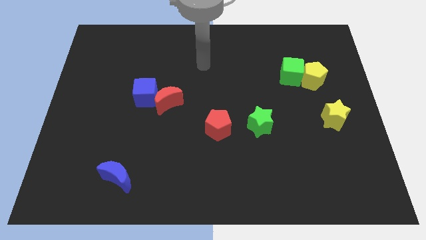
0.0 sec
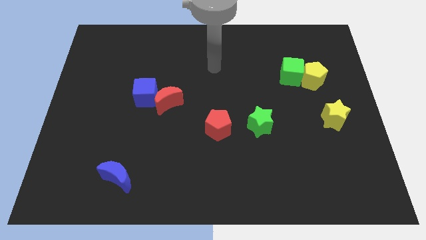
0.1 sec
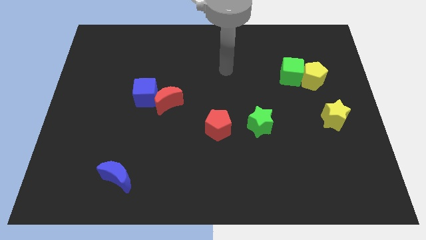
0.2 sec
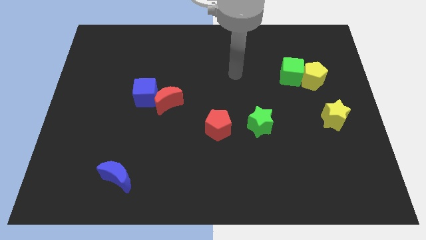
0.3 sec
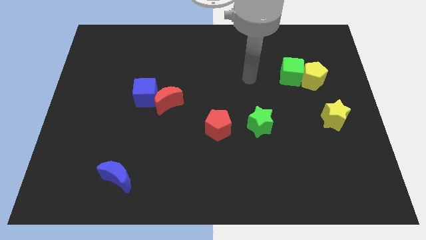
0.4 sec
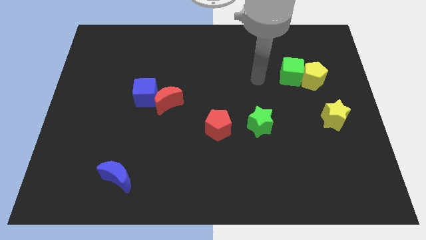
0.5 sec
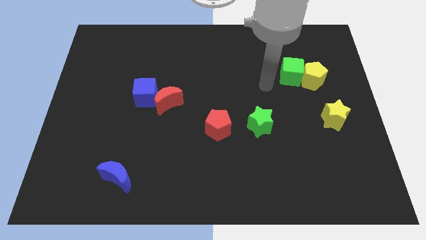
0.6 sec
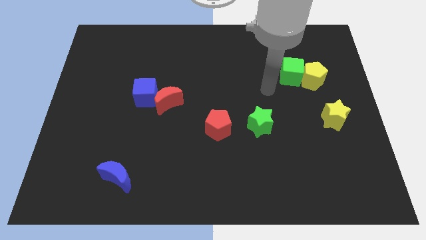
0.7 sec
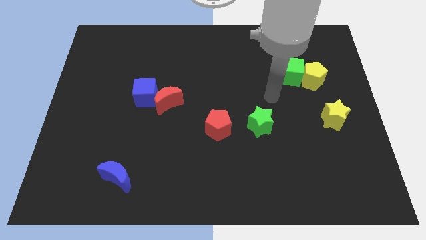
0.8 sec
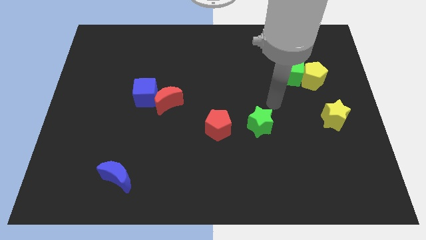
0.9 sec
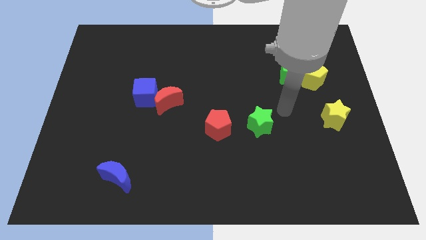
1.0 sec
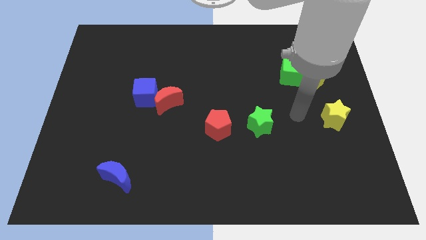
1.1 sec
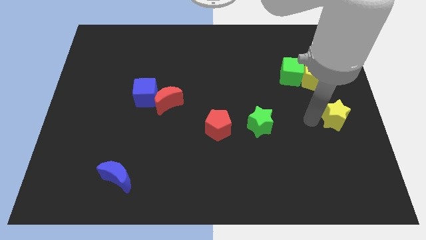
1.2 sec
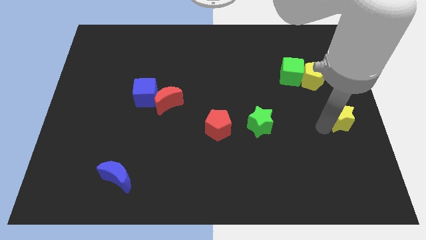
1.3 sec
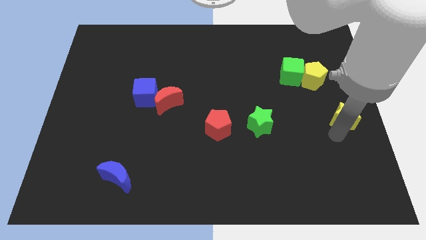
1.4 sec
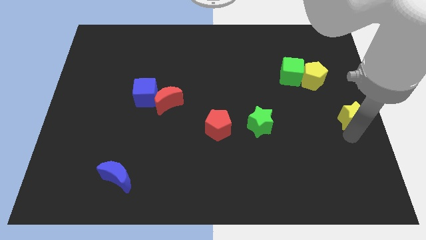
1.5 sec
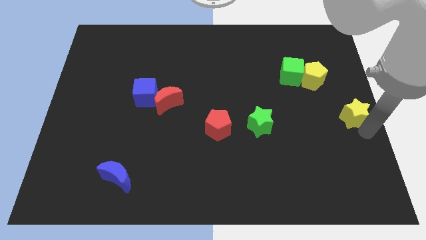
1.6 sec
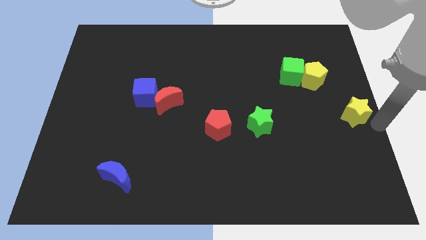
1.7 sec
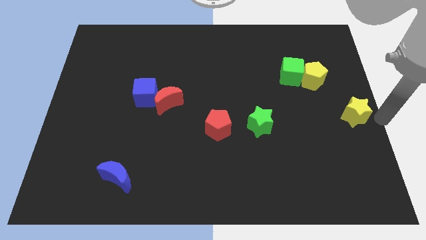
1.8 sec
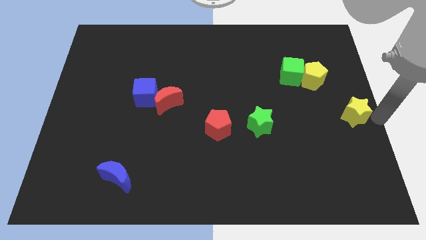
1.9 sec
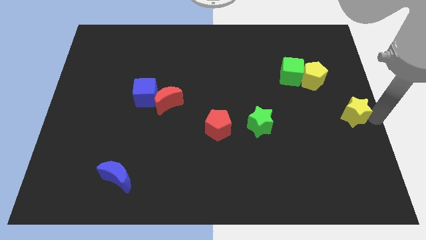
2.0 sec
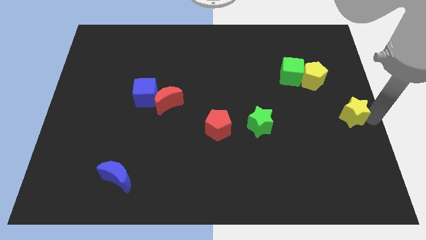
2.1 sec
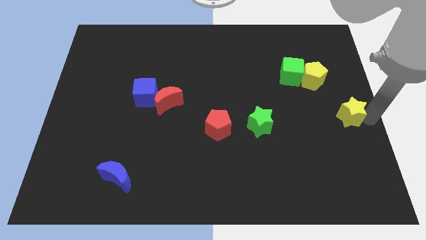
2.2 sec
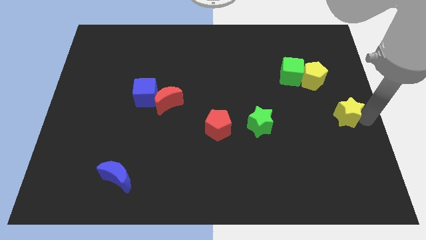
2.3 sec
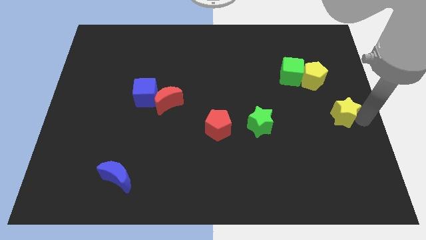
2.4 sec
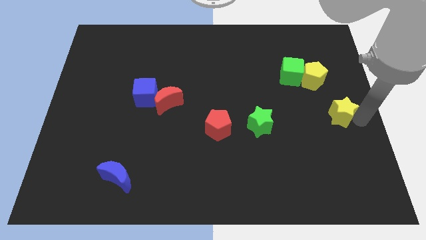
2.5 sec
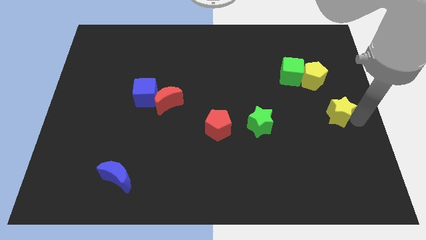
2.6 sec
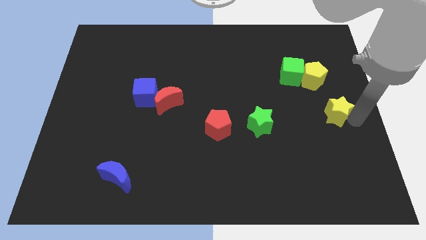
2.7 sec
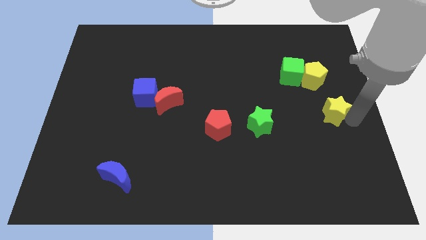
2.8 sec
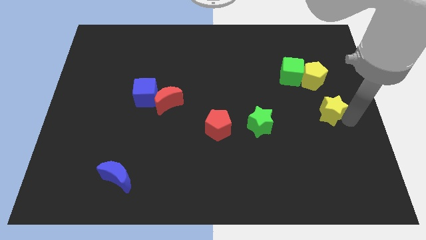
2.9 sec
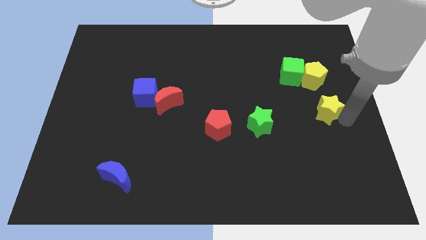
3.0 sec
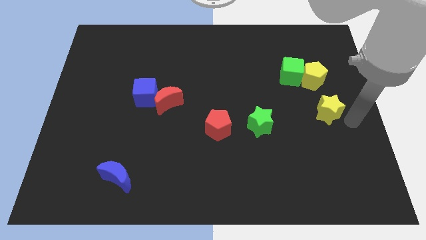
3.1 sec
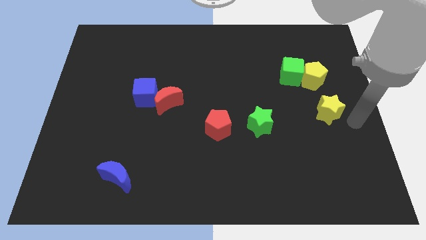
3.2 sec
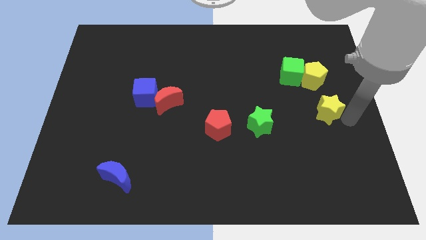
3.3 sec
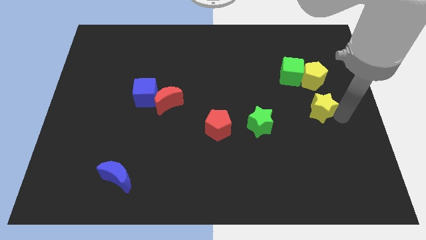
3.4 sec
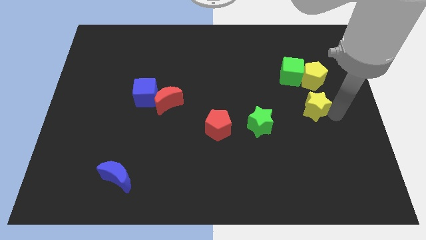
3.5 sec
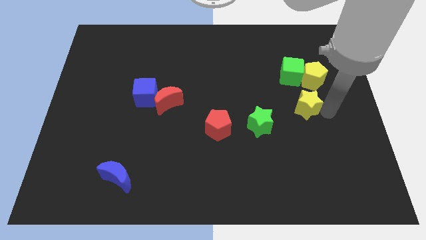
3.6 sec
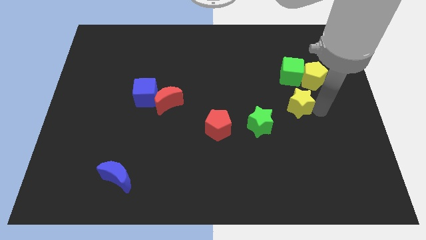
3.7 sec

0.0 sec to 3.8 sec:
slide the yellow star a little up and then left

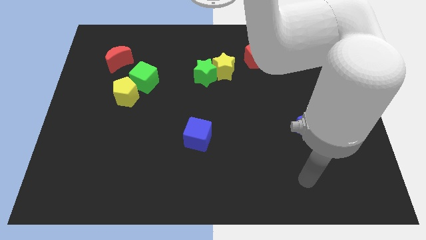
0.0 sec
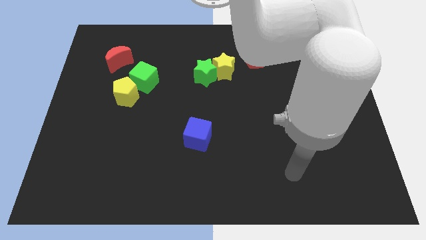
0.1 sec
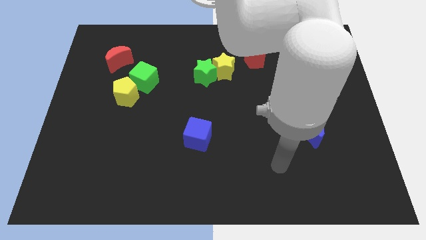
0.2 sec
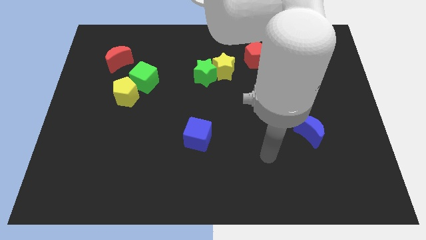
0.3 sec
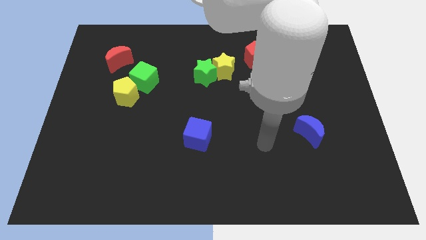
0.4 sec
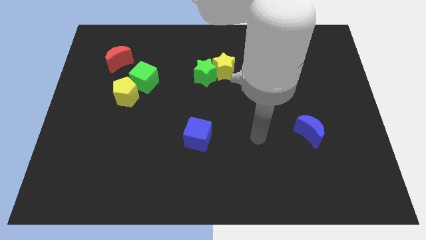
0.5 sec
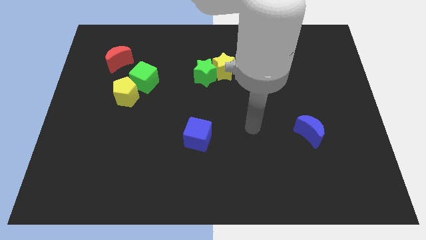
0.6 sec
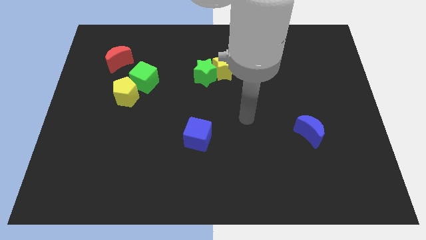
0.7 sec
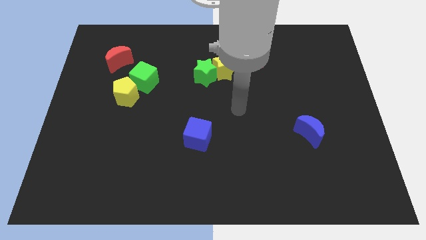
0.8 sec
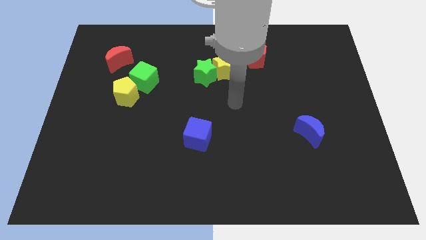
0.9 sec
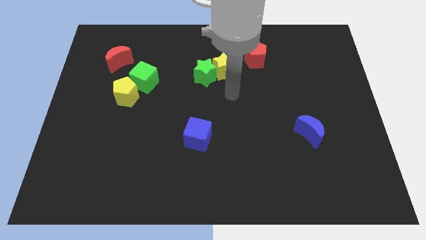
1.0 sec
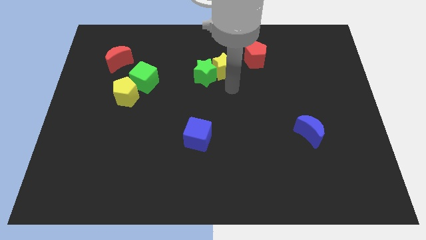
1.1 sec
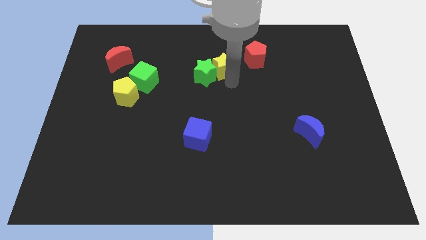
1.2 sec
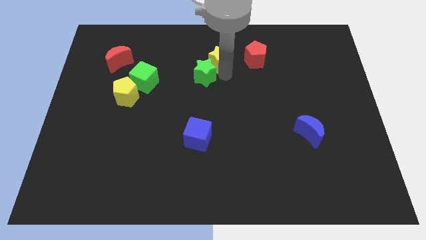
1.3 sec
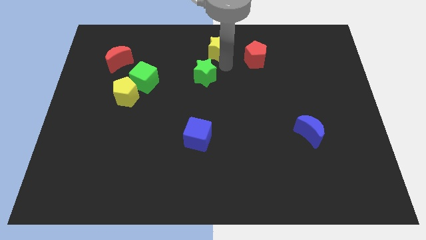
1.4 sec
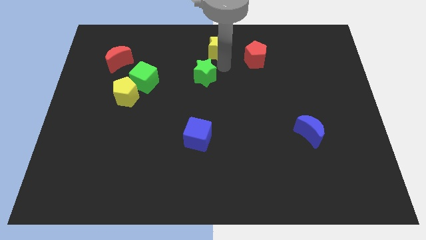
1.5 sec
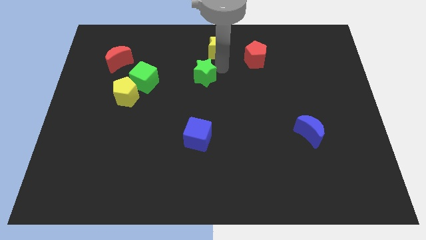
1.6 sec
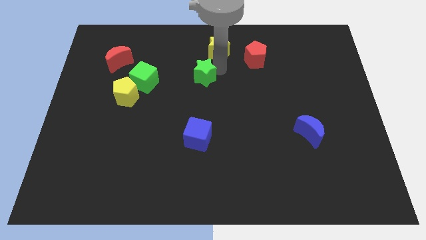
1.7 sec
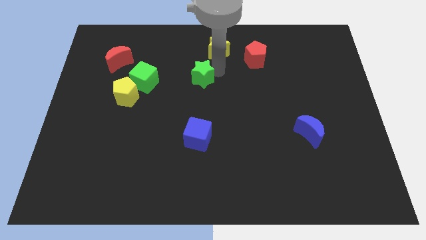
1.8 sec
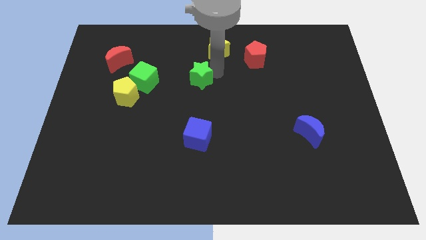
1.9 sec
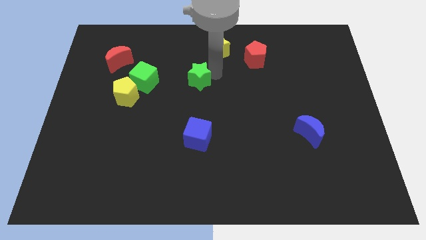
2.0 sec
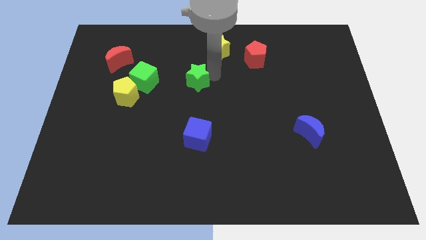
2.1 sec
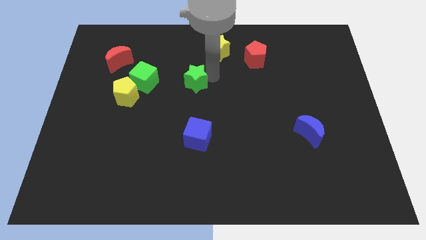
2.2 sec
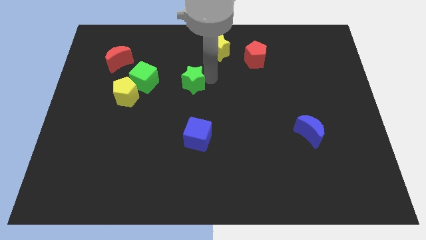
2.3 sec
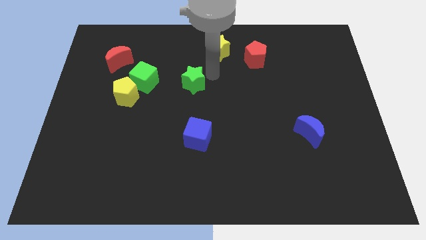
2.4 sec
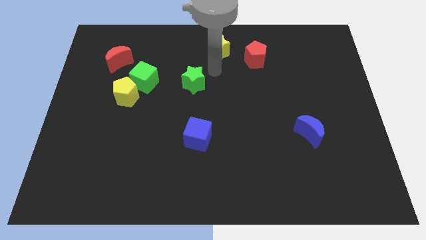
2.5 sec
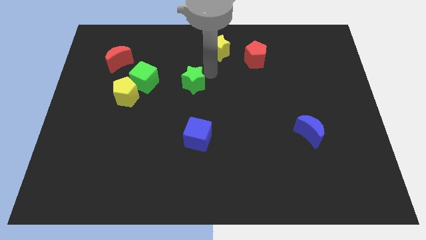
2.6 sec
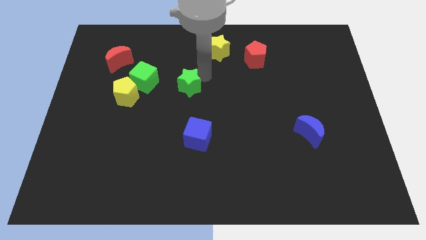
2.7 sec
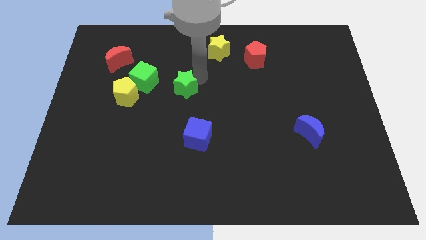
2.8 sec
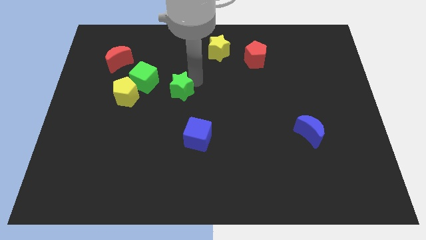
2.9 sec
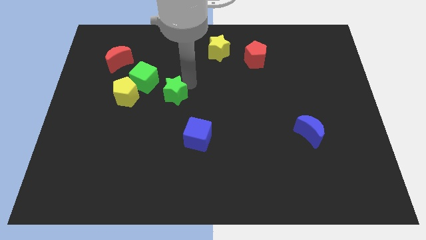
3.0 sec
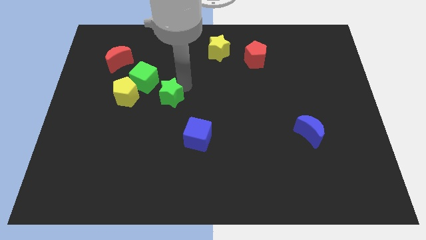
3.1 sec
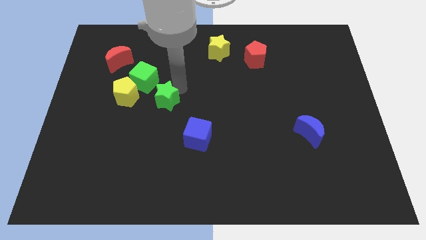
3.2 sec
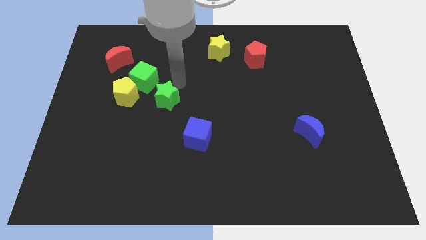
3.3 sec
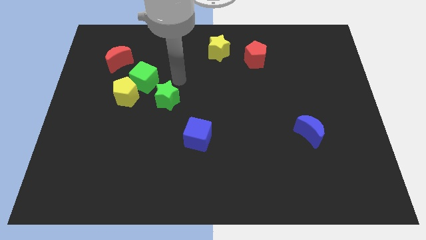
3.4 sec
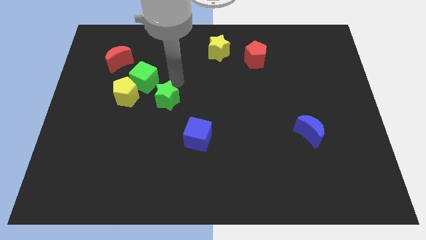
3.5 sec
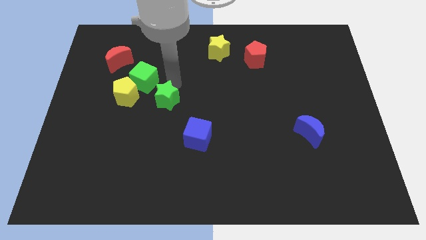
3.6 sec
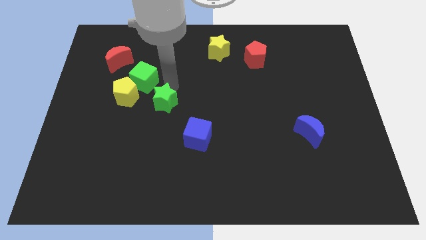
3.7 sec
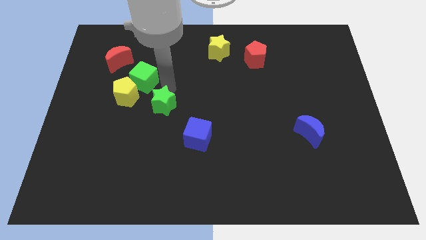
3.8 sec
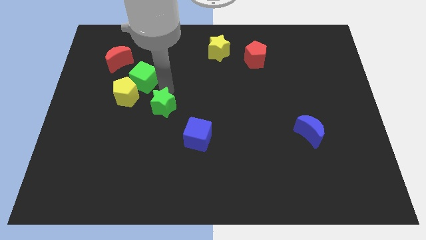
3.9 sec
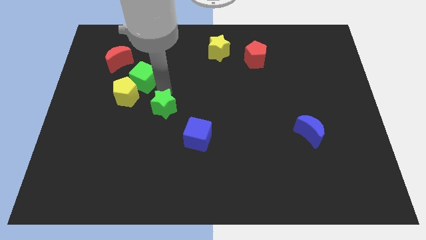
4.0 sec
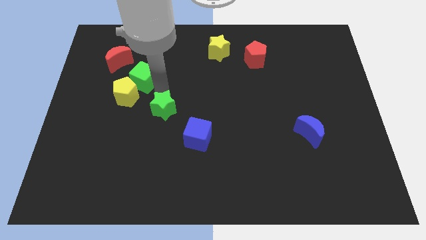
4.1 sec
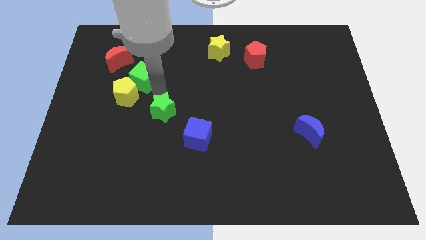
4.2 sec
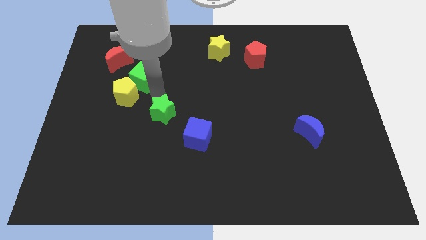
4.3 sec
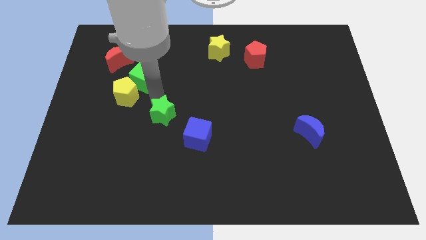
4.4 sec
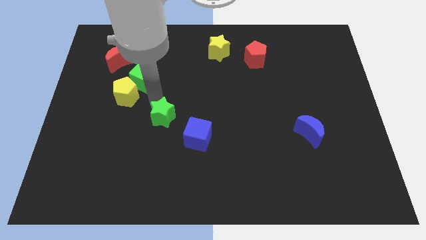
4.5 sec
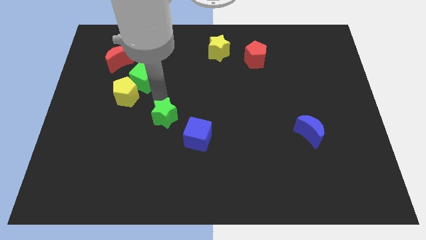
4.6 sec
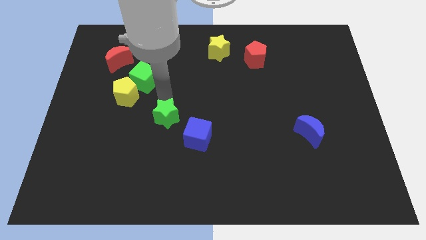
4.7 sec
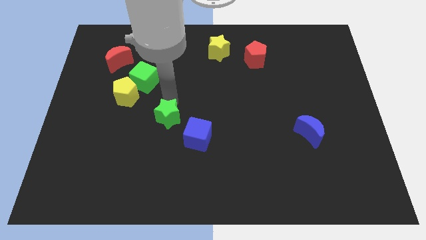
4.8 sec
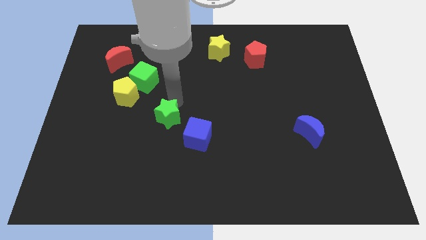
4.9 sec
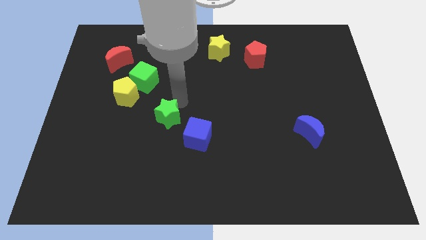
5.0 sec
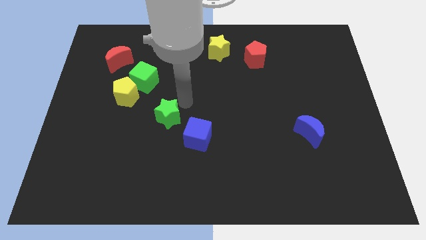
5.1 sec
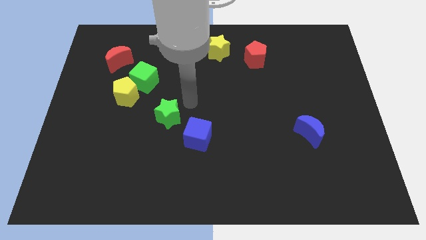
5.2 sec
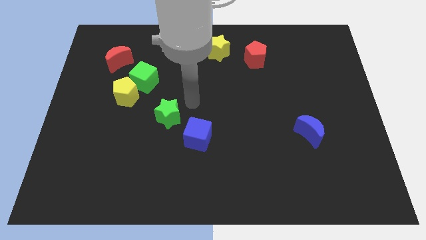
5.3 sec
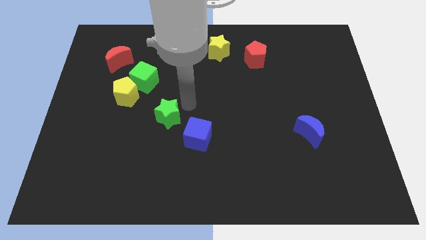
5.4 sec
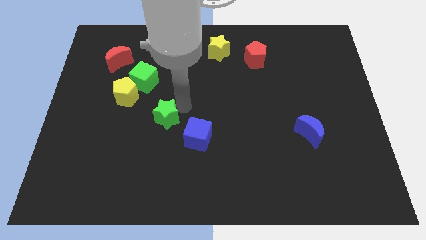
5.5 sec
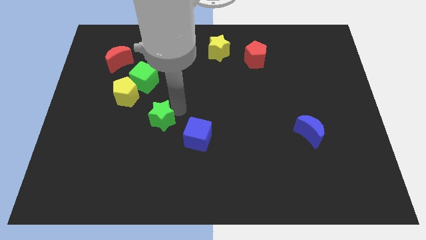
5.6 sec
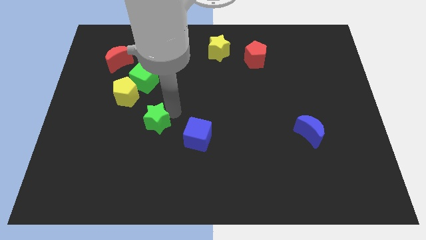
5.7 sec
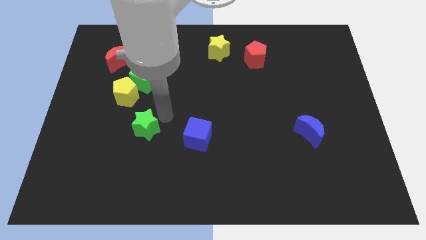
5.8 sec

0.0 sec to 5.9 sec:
move the green star down and left diagonally
